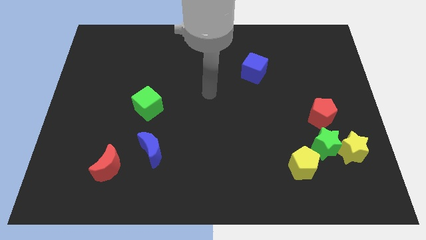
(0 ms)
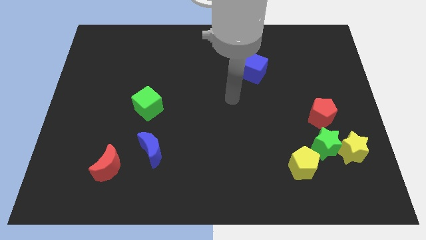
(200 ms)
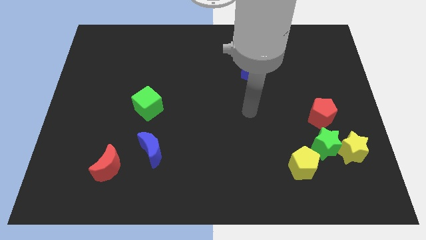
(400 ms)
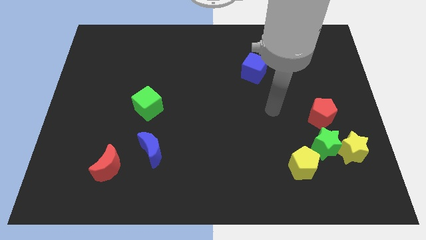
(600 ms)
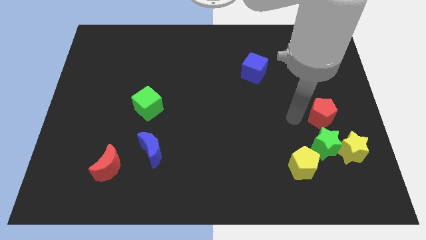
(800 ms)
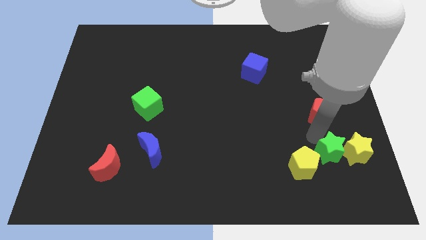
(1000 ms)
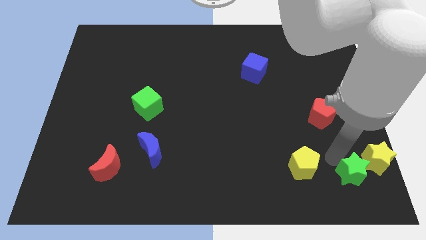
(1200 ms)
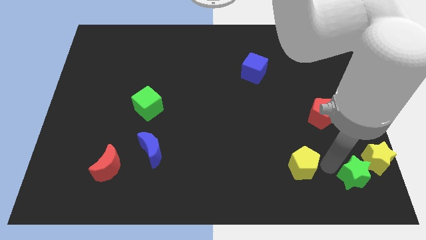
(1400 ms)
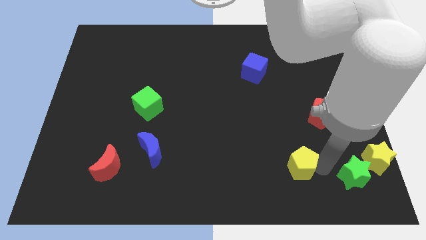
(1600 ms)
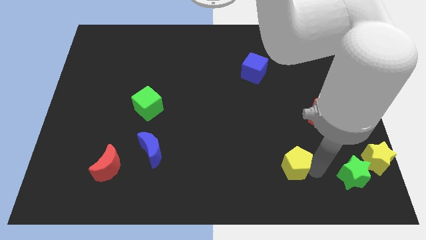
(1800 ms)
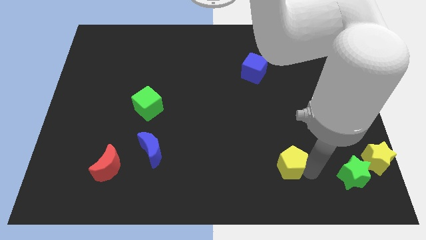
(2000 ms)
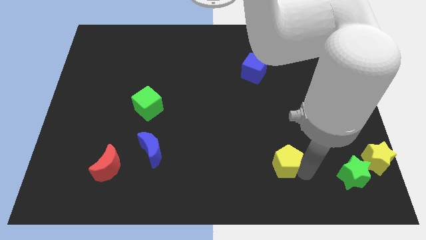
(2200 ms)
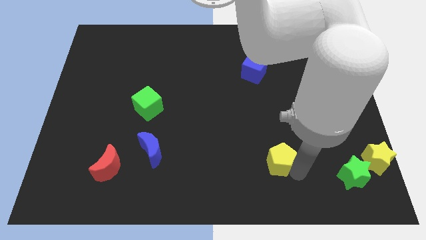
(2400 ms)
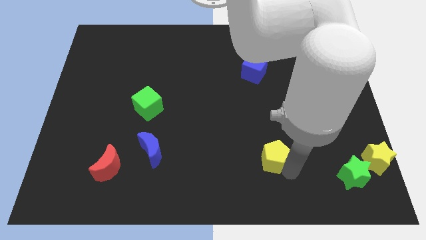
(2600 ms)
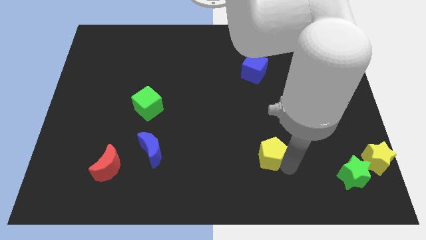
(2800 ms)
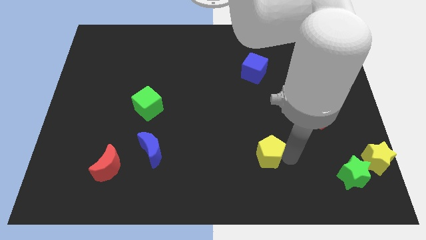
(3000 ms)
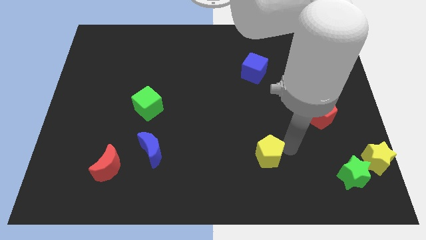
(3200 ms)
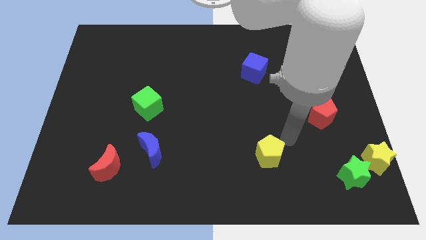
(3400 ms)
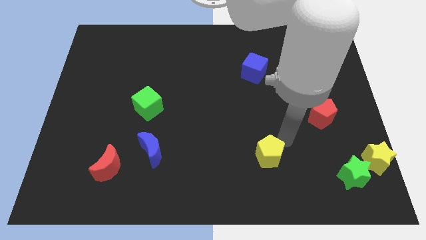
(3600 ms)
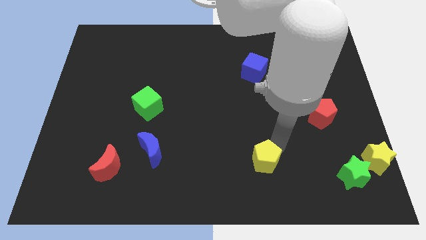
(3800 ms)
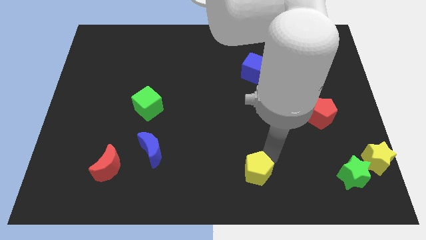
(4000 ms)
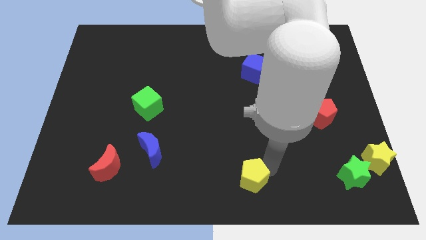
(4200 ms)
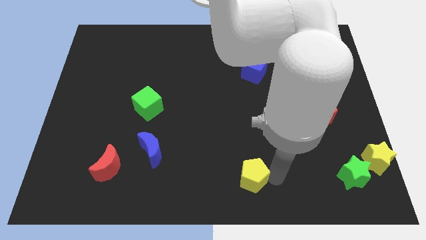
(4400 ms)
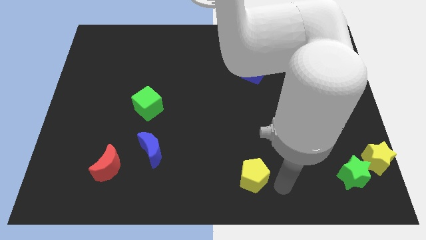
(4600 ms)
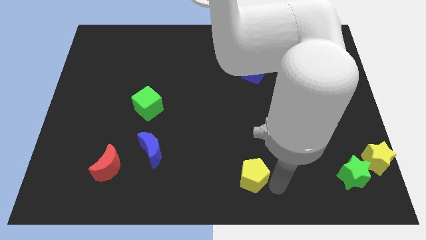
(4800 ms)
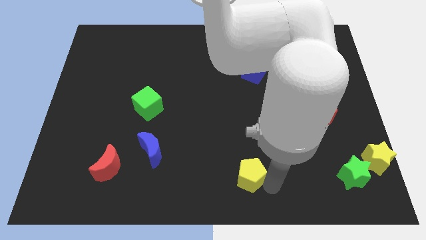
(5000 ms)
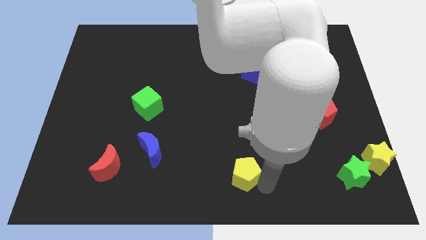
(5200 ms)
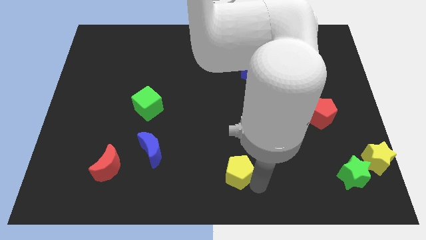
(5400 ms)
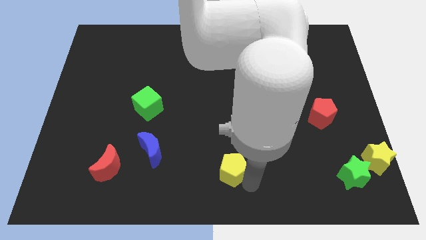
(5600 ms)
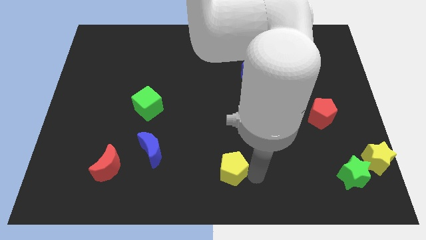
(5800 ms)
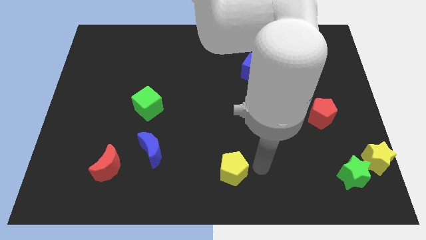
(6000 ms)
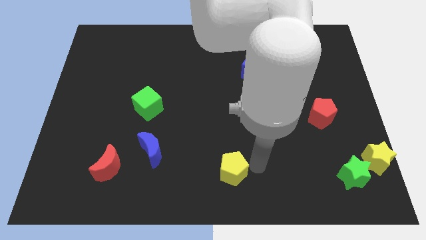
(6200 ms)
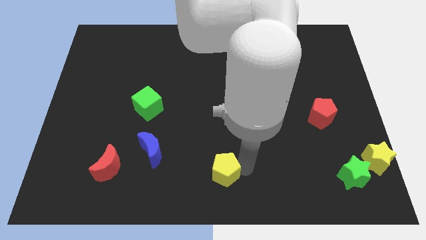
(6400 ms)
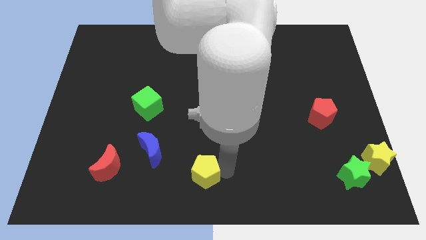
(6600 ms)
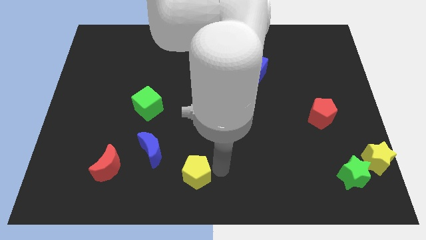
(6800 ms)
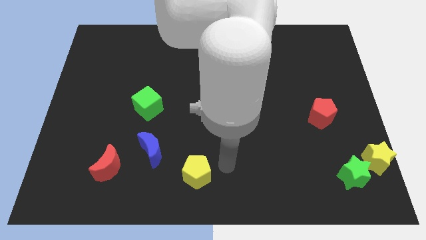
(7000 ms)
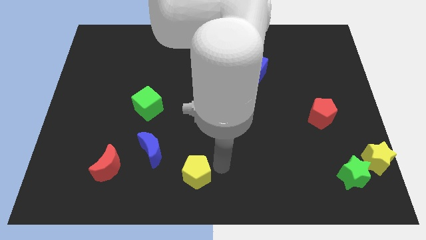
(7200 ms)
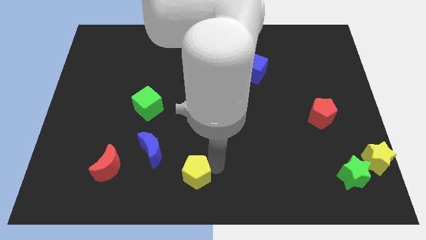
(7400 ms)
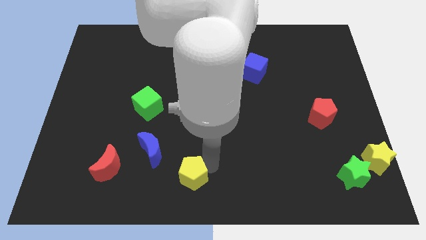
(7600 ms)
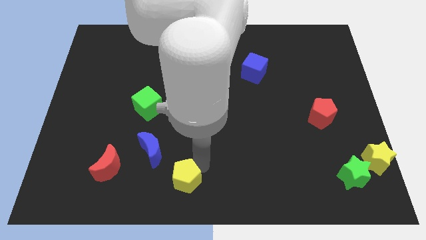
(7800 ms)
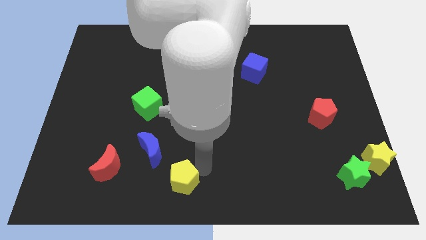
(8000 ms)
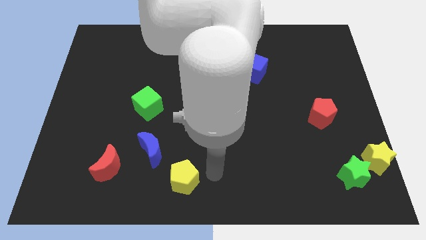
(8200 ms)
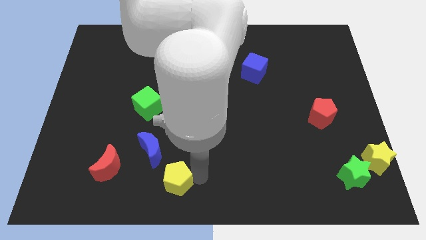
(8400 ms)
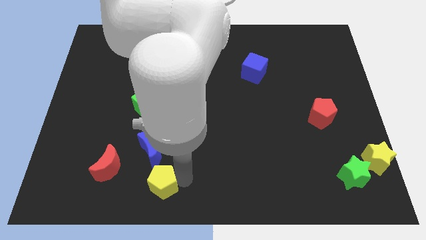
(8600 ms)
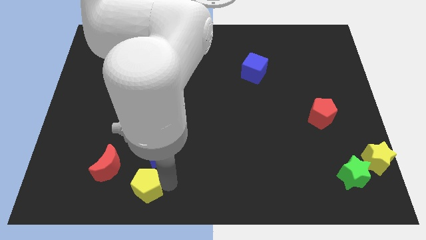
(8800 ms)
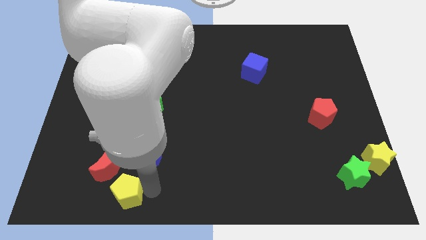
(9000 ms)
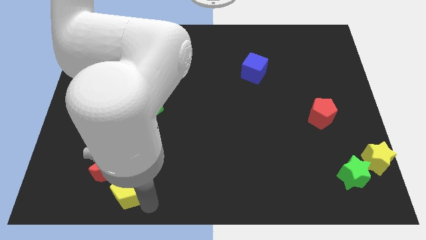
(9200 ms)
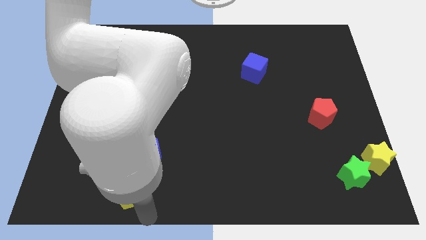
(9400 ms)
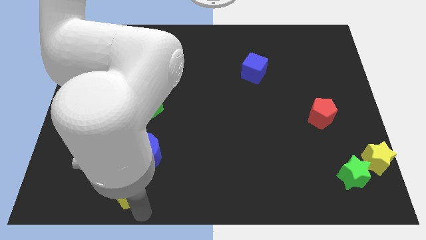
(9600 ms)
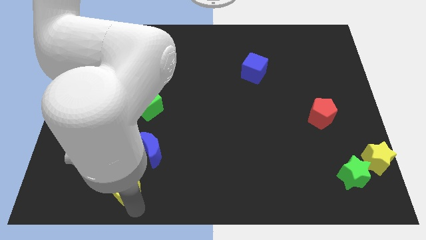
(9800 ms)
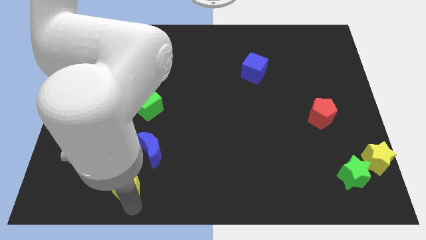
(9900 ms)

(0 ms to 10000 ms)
slide the yellow pentagon next to the red moon

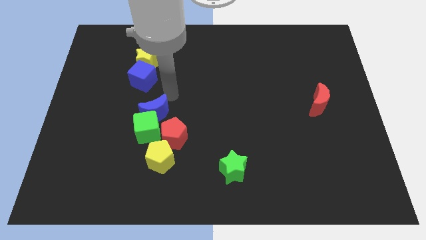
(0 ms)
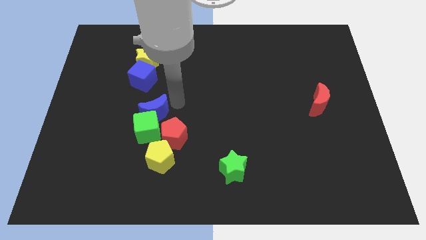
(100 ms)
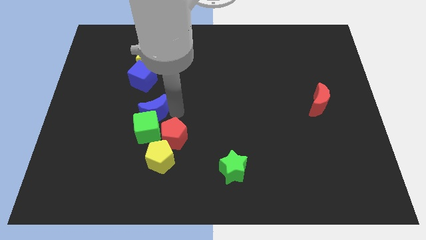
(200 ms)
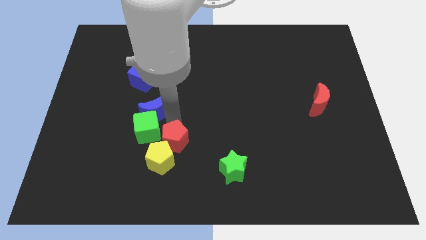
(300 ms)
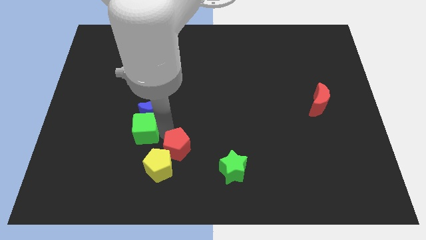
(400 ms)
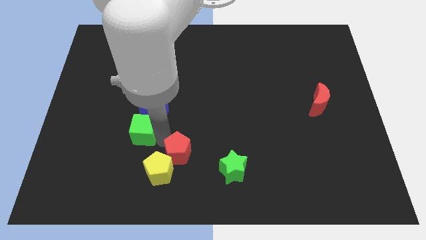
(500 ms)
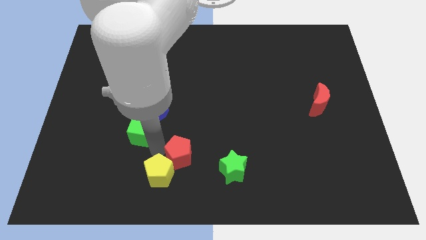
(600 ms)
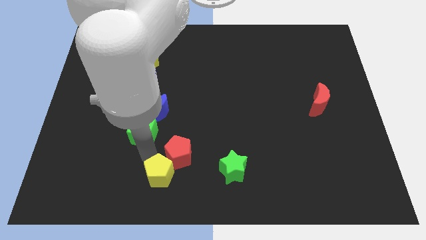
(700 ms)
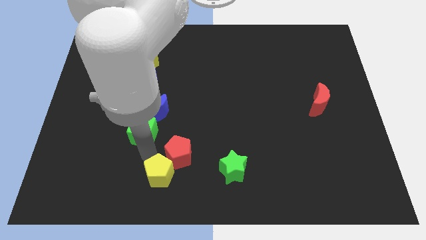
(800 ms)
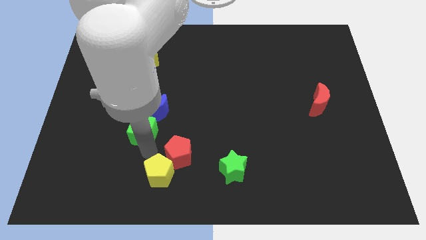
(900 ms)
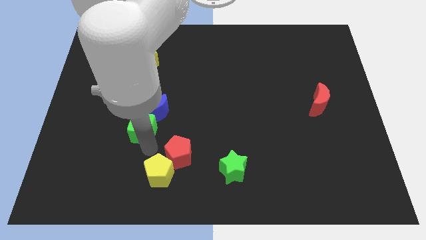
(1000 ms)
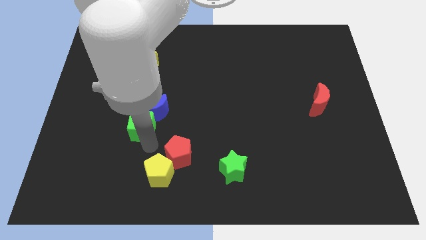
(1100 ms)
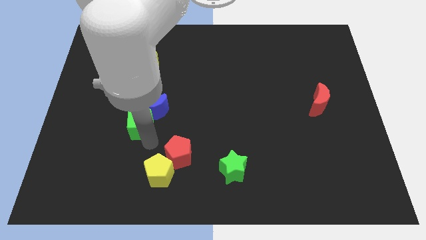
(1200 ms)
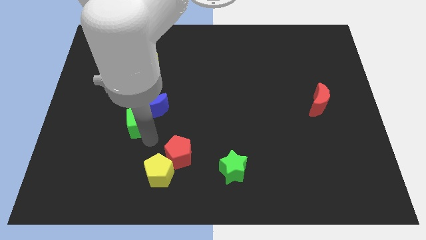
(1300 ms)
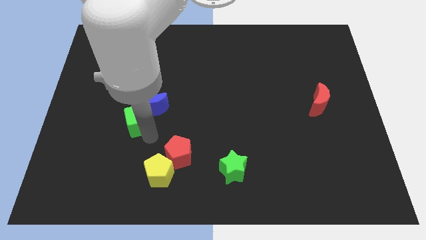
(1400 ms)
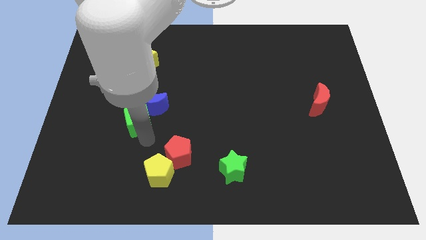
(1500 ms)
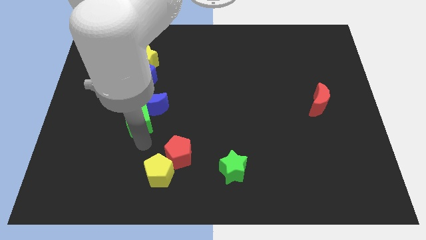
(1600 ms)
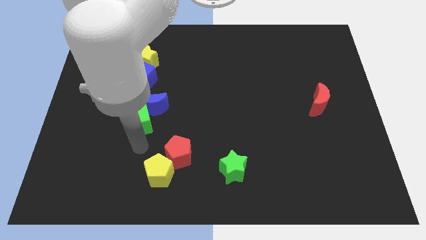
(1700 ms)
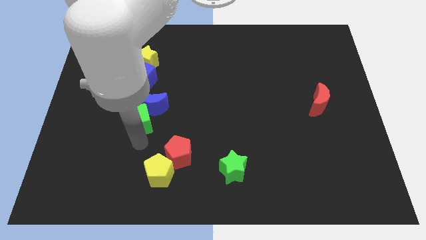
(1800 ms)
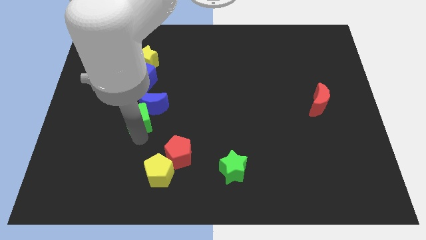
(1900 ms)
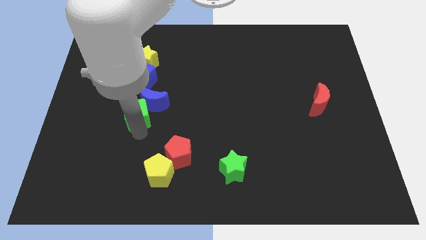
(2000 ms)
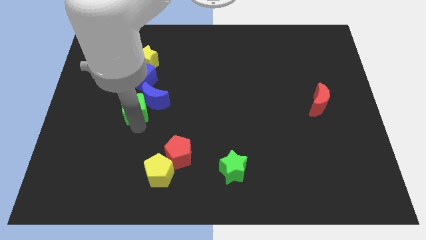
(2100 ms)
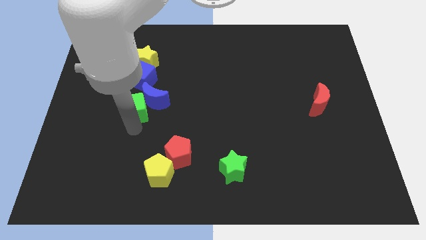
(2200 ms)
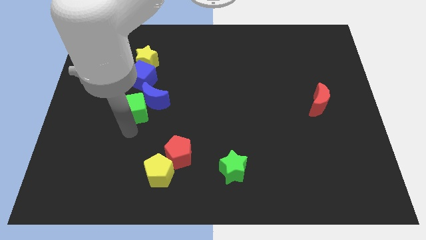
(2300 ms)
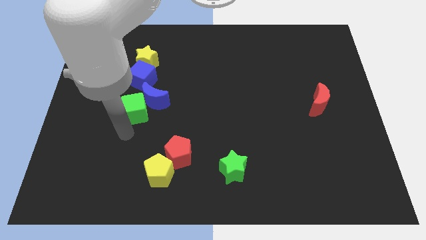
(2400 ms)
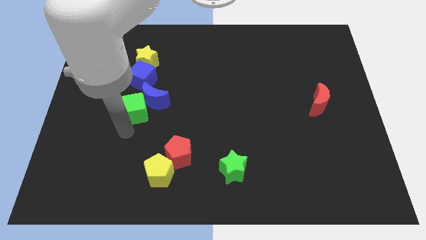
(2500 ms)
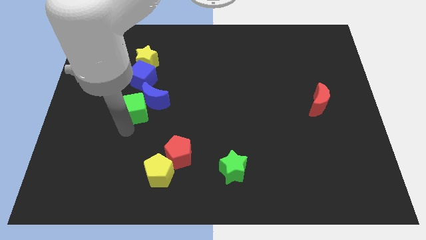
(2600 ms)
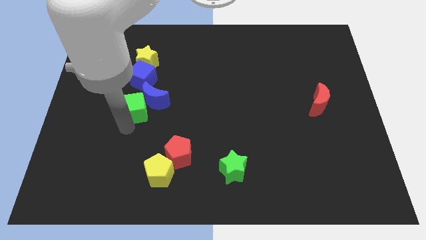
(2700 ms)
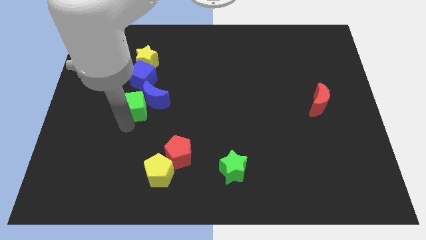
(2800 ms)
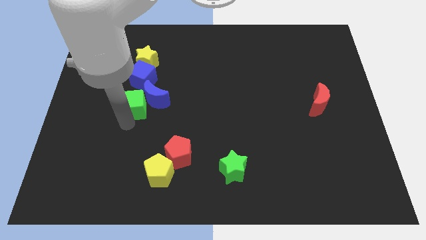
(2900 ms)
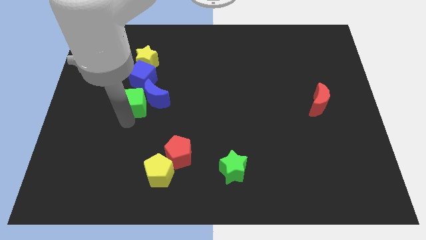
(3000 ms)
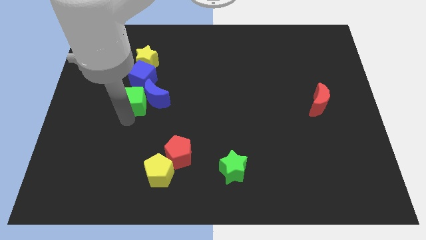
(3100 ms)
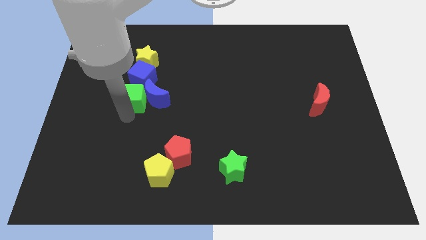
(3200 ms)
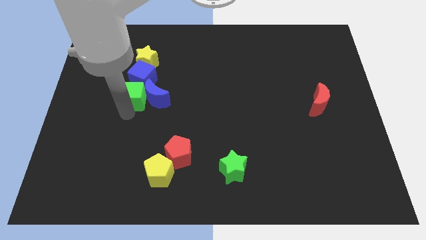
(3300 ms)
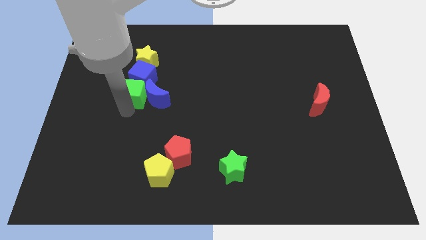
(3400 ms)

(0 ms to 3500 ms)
put the green cube next to the blue cube
